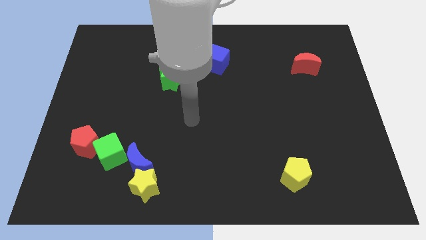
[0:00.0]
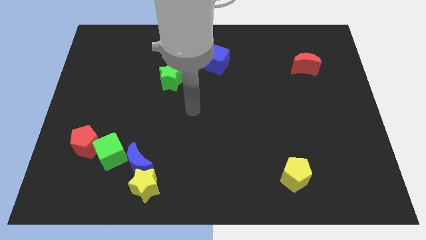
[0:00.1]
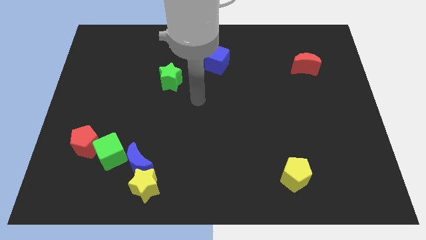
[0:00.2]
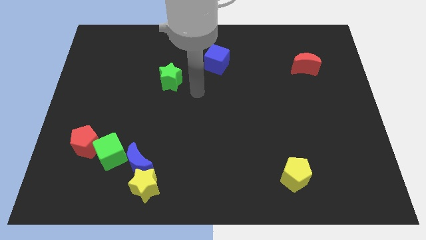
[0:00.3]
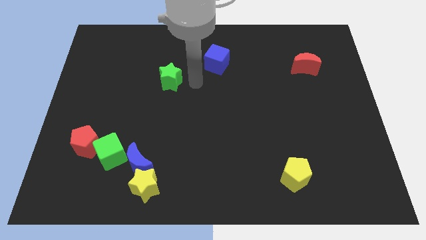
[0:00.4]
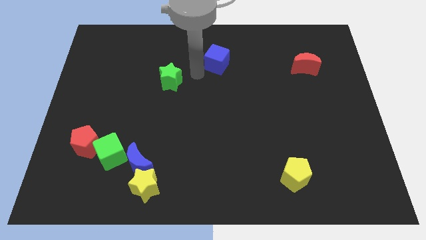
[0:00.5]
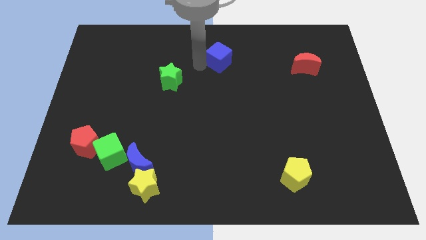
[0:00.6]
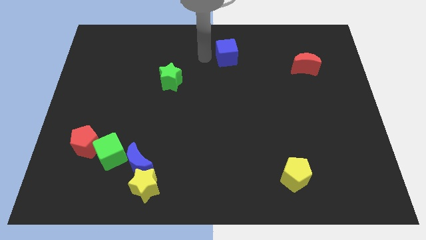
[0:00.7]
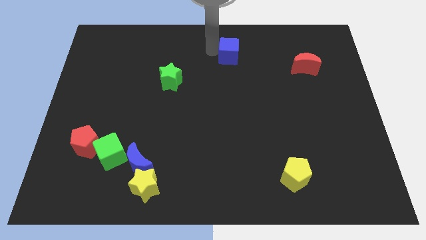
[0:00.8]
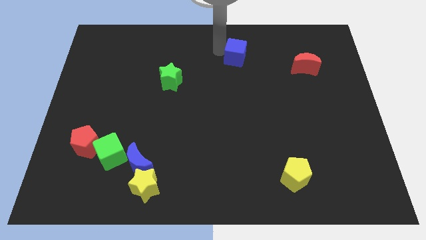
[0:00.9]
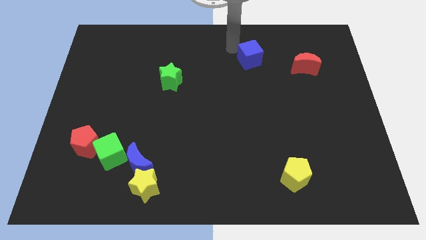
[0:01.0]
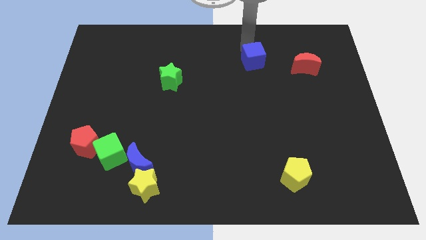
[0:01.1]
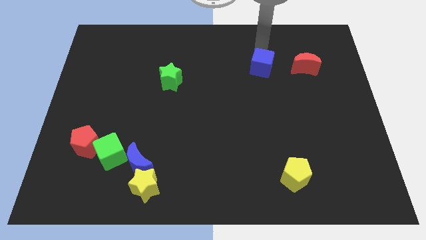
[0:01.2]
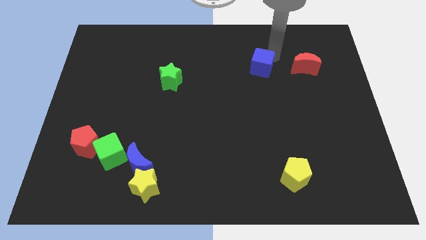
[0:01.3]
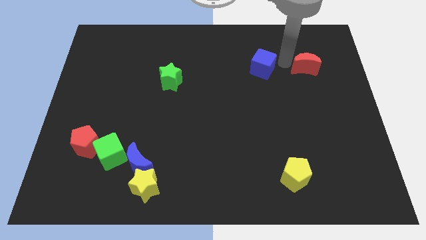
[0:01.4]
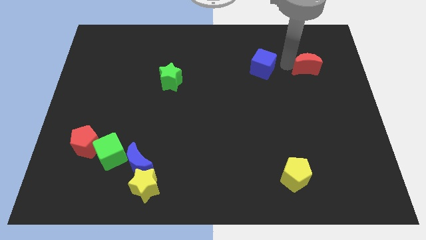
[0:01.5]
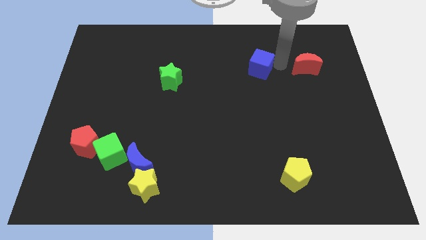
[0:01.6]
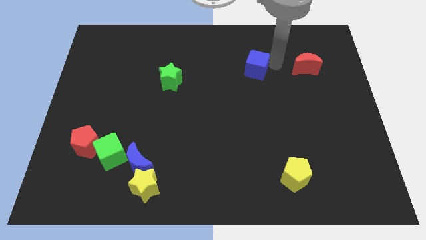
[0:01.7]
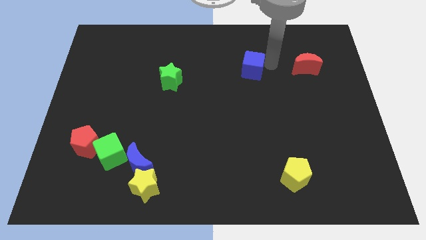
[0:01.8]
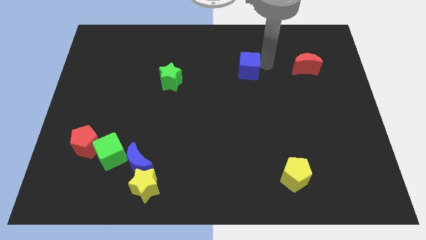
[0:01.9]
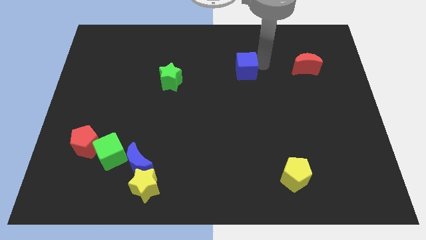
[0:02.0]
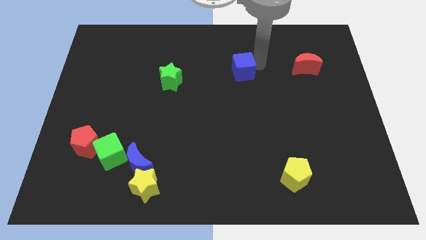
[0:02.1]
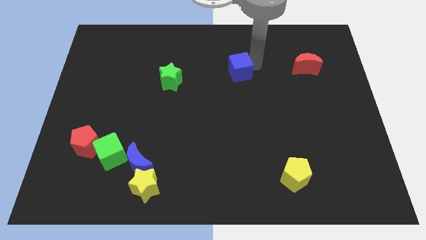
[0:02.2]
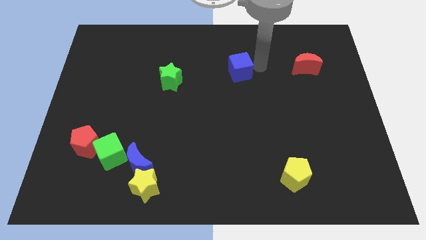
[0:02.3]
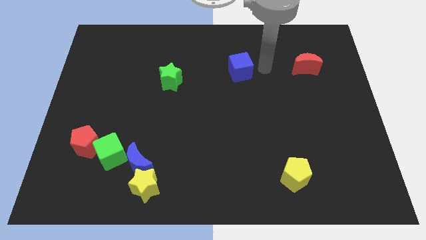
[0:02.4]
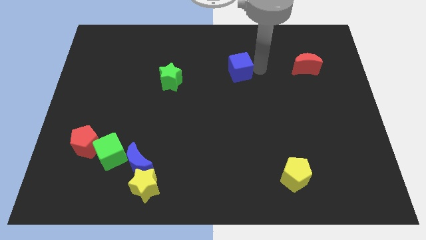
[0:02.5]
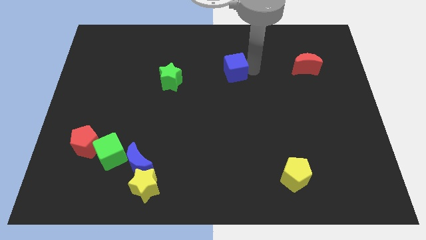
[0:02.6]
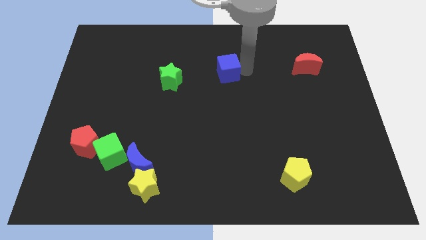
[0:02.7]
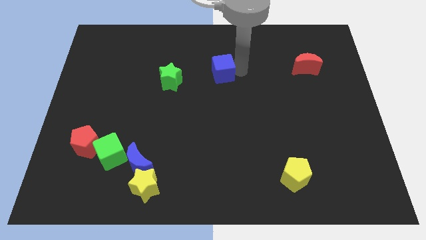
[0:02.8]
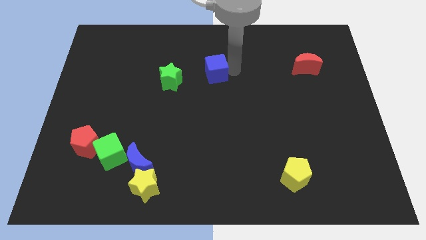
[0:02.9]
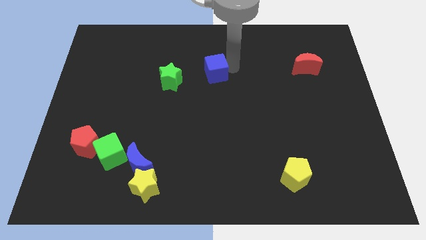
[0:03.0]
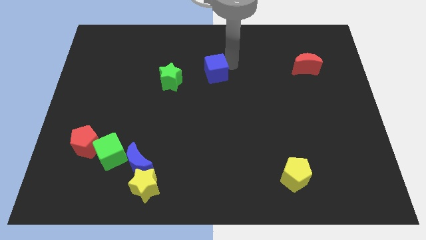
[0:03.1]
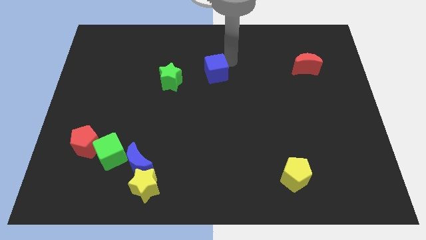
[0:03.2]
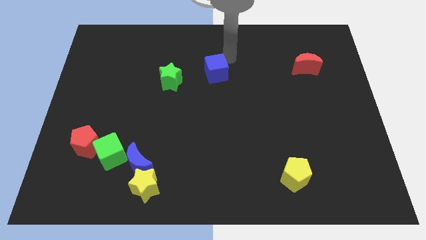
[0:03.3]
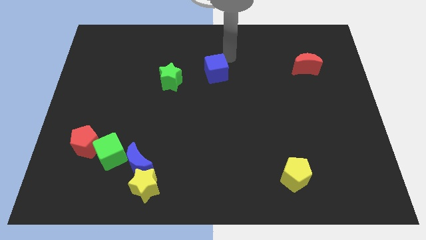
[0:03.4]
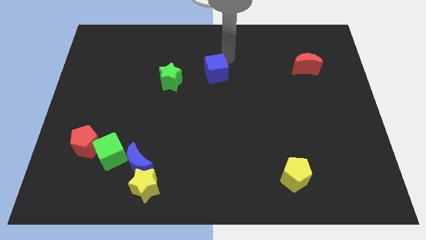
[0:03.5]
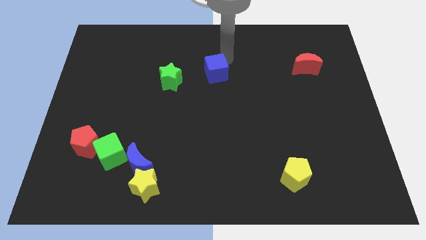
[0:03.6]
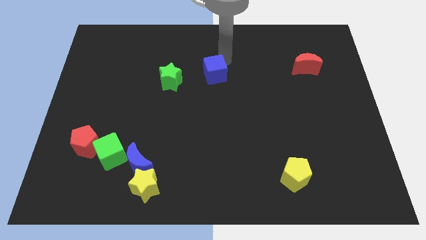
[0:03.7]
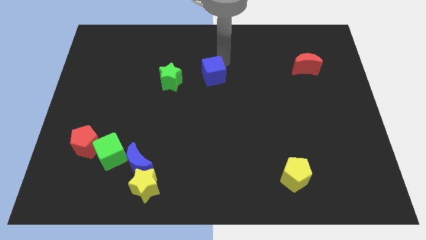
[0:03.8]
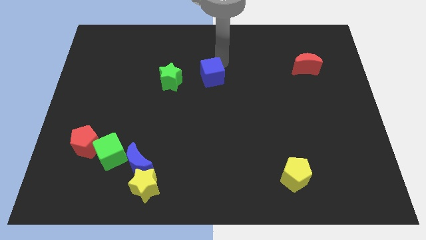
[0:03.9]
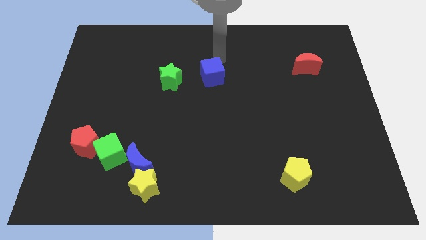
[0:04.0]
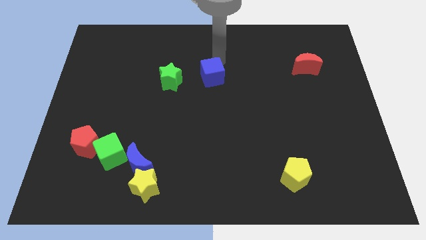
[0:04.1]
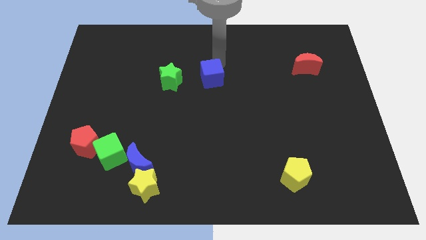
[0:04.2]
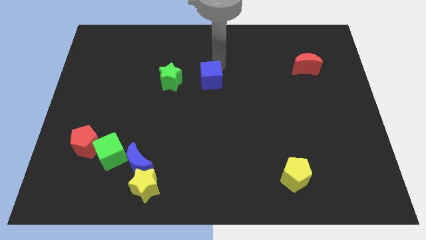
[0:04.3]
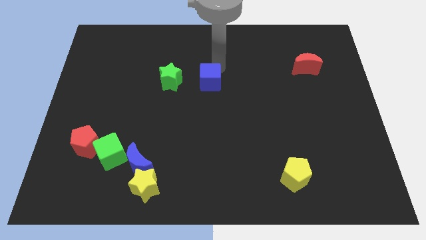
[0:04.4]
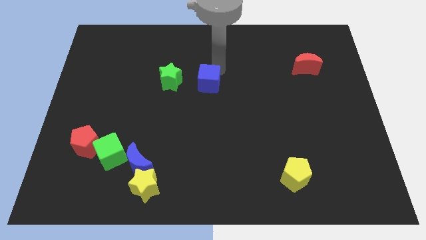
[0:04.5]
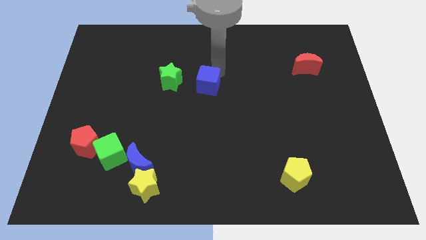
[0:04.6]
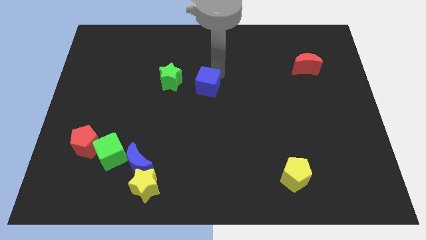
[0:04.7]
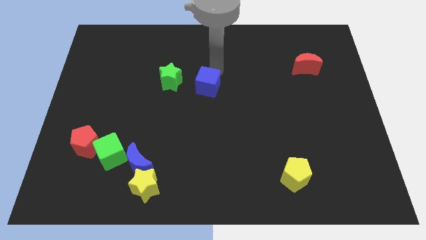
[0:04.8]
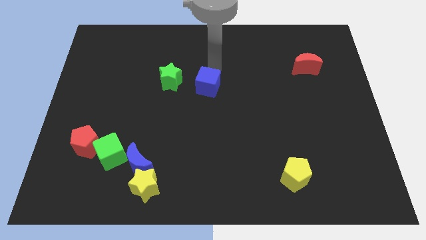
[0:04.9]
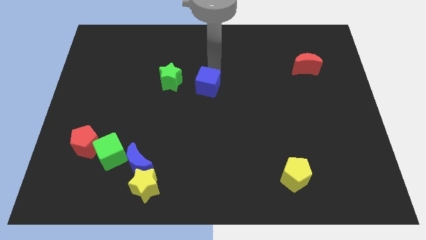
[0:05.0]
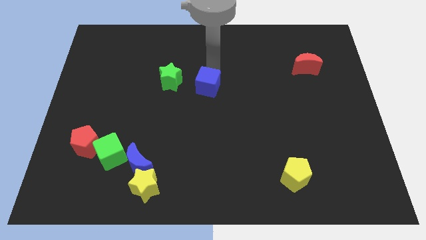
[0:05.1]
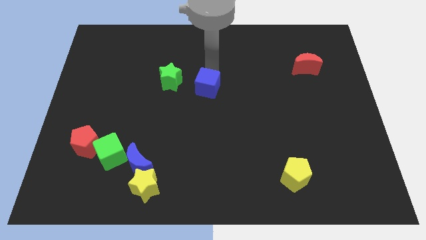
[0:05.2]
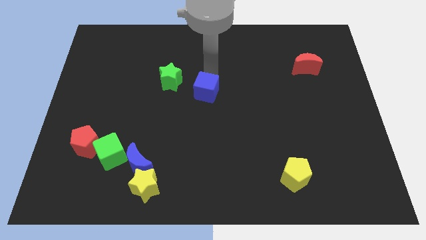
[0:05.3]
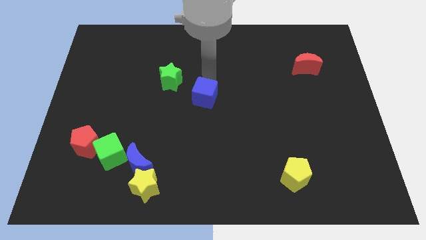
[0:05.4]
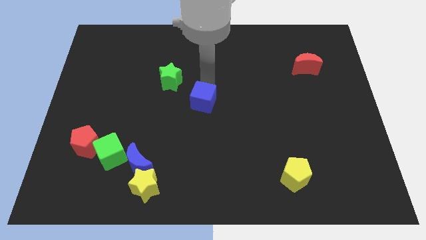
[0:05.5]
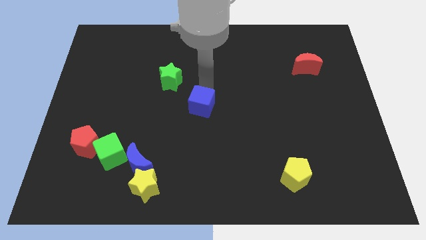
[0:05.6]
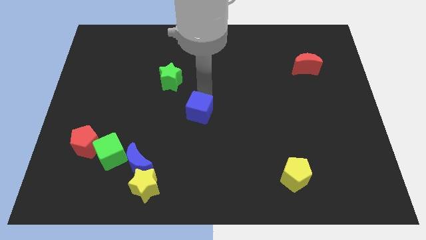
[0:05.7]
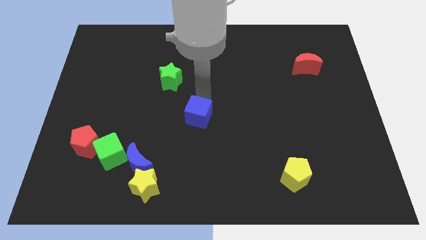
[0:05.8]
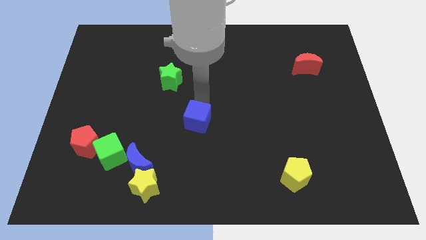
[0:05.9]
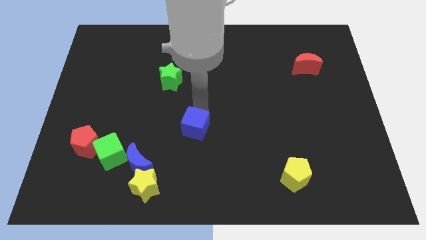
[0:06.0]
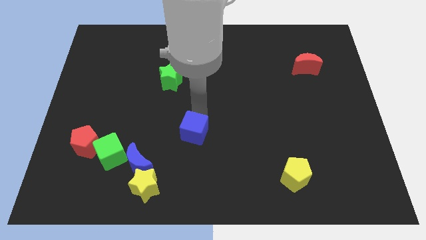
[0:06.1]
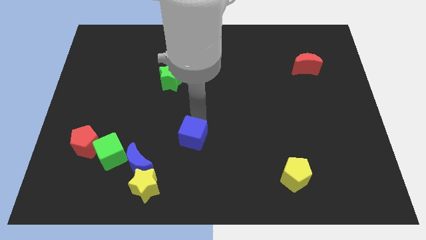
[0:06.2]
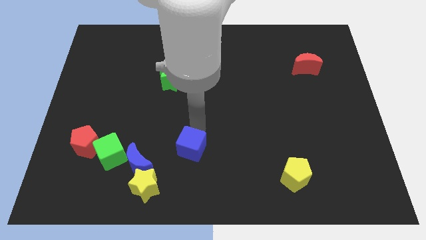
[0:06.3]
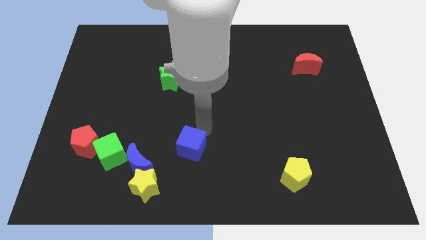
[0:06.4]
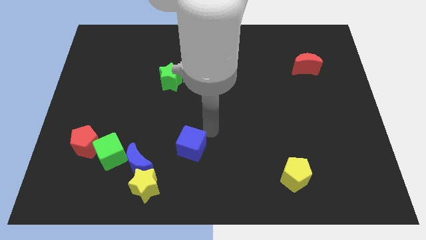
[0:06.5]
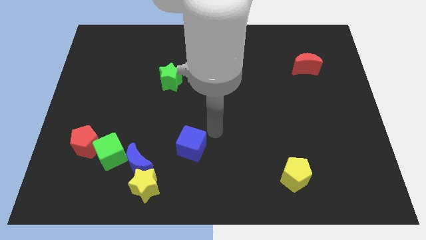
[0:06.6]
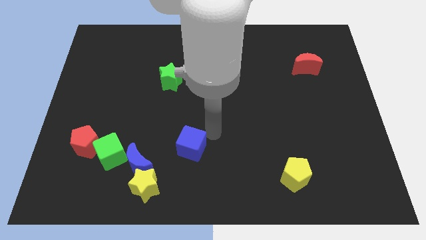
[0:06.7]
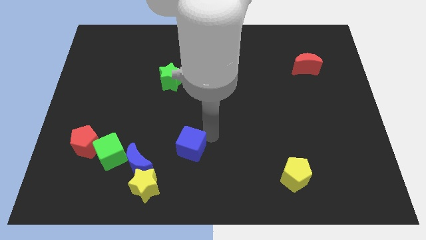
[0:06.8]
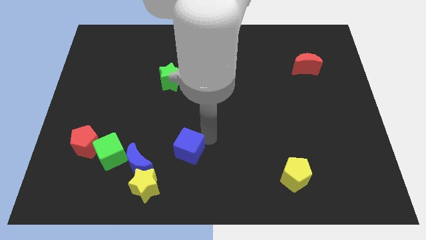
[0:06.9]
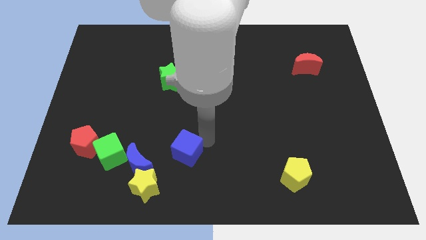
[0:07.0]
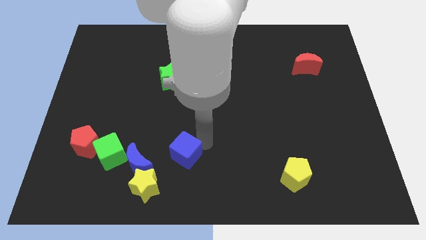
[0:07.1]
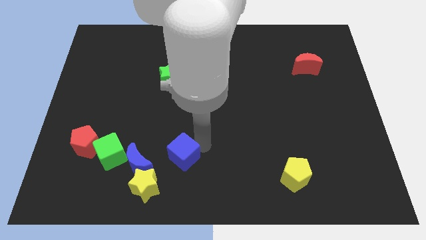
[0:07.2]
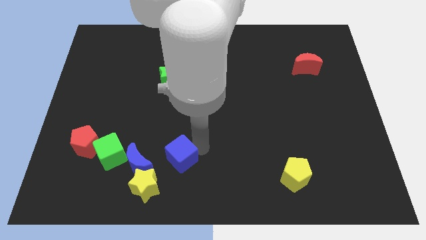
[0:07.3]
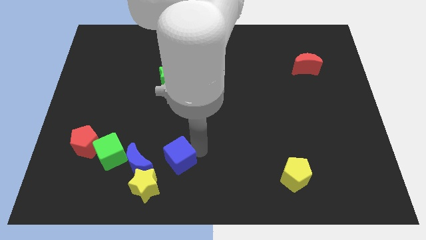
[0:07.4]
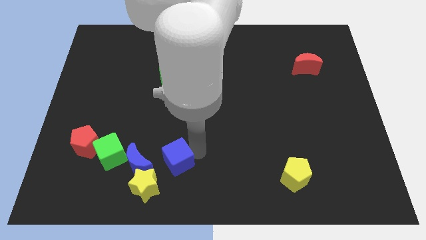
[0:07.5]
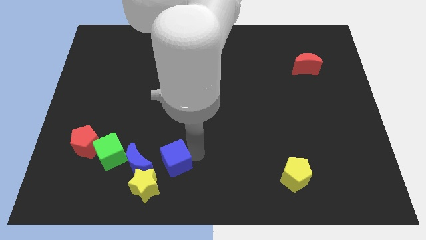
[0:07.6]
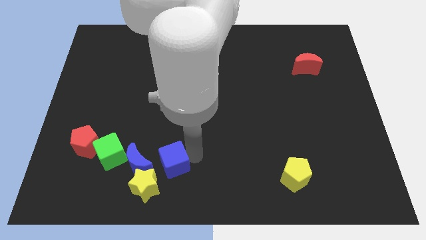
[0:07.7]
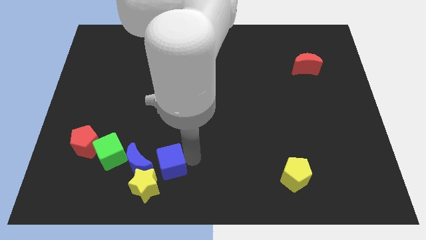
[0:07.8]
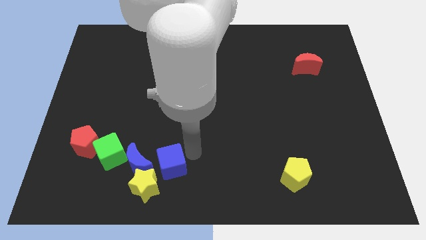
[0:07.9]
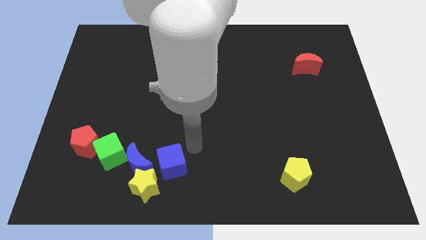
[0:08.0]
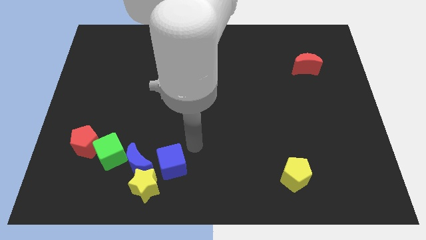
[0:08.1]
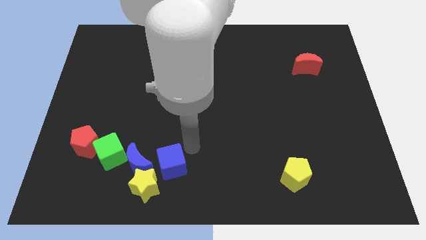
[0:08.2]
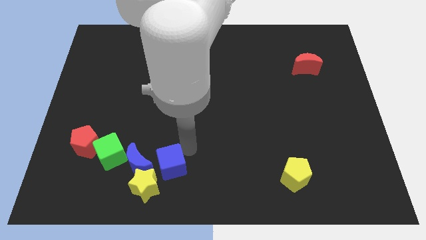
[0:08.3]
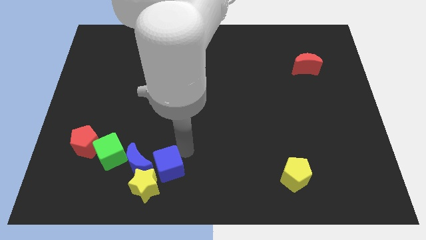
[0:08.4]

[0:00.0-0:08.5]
push the blue cube towards the yellow star
